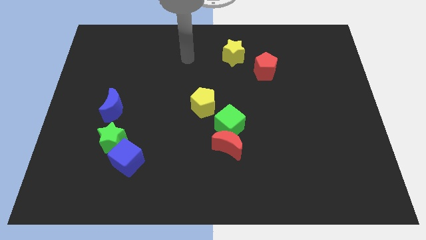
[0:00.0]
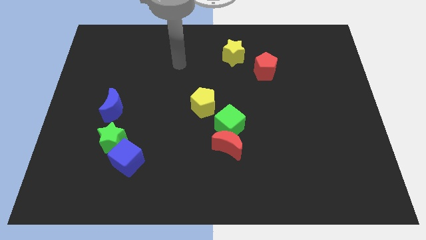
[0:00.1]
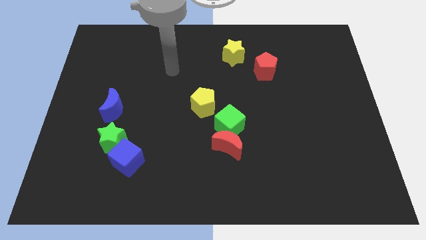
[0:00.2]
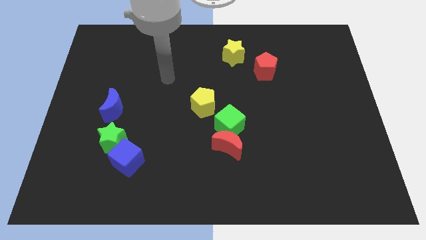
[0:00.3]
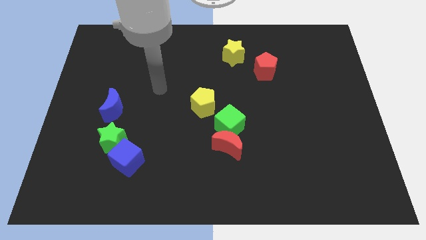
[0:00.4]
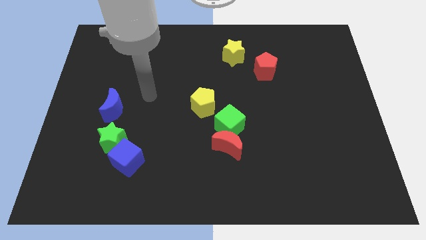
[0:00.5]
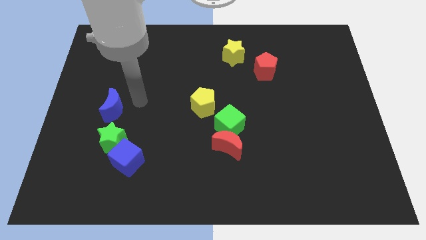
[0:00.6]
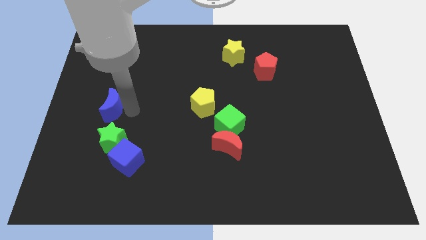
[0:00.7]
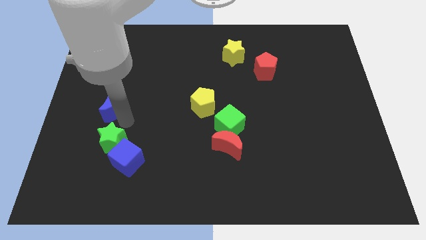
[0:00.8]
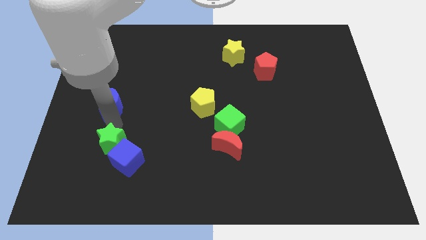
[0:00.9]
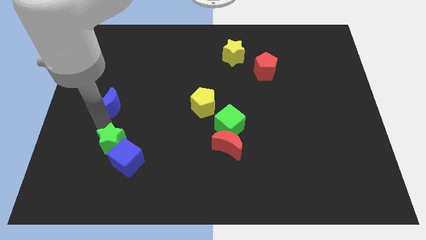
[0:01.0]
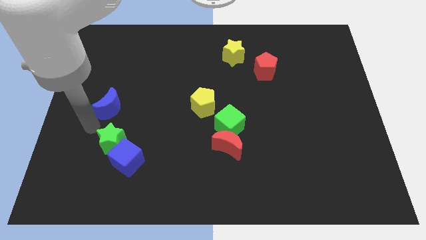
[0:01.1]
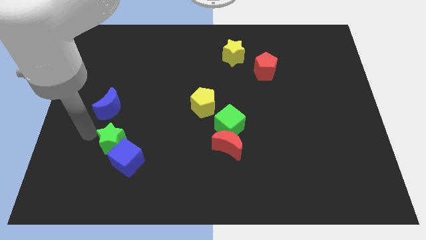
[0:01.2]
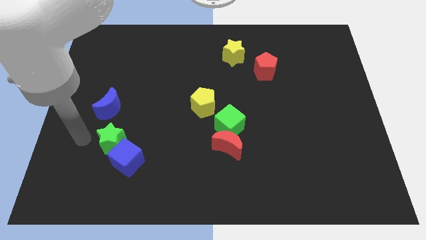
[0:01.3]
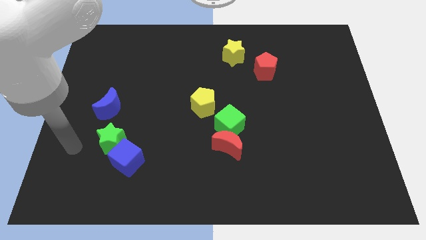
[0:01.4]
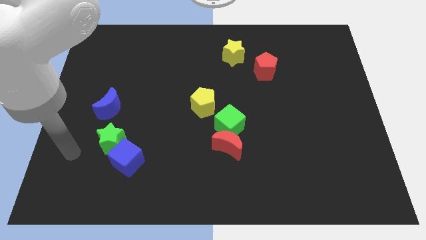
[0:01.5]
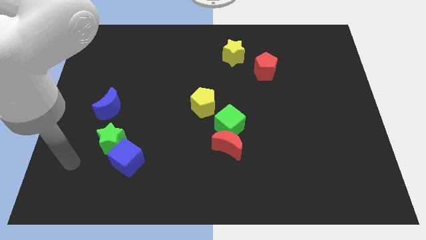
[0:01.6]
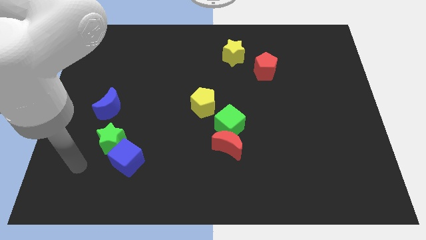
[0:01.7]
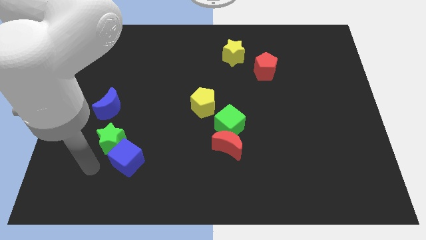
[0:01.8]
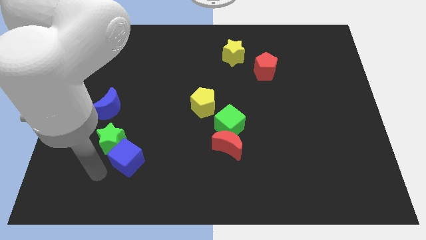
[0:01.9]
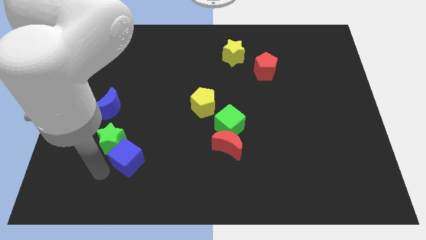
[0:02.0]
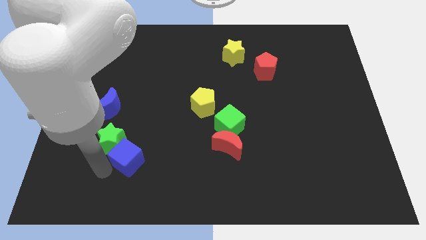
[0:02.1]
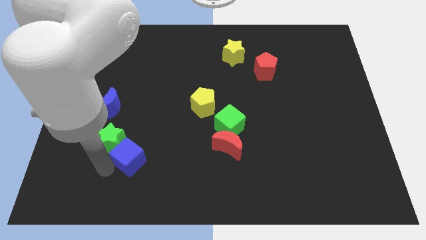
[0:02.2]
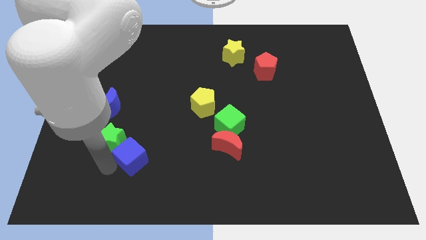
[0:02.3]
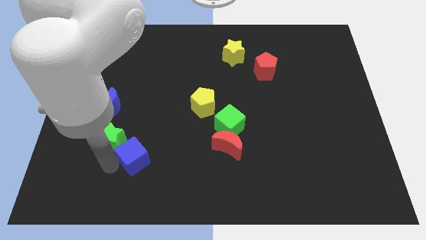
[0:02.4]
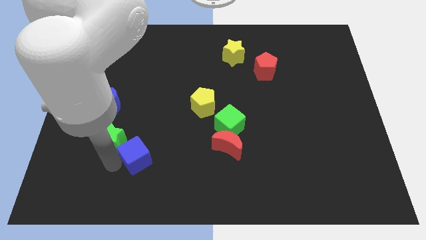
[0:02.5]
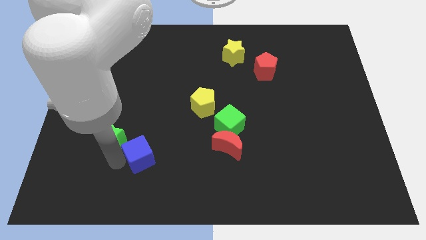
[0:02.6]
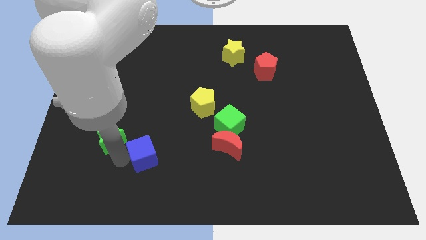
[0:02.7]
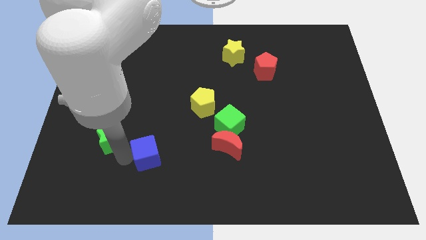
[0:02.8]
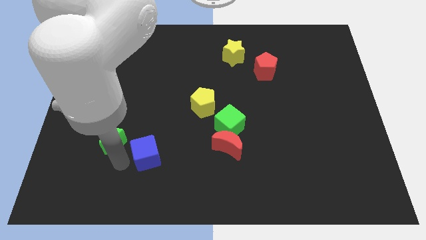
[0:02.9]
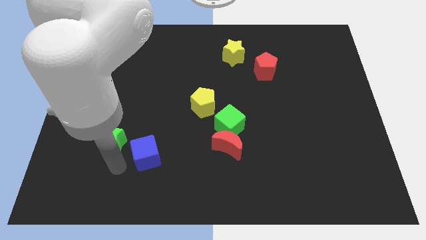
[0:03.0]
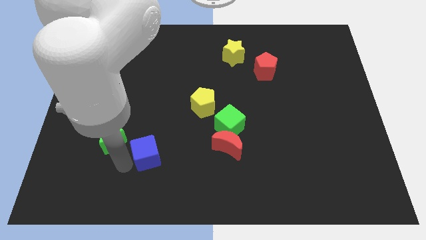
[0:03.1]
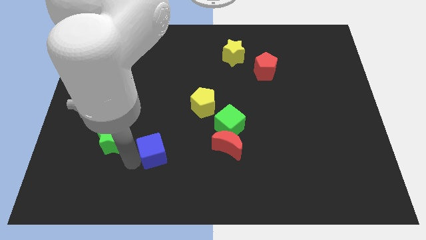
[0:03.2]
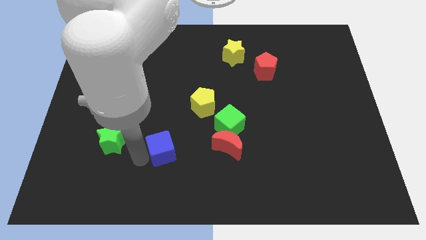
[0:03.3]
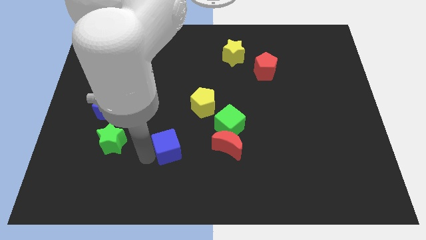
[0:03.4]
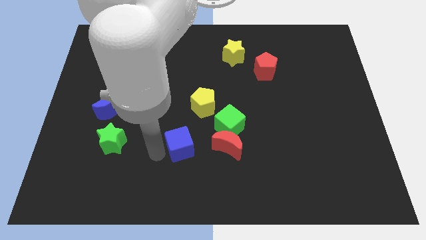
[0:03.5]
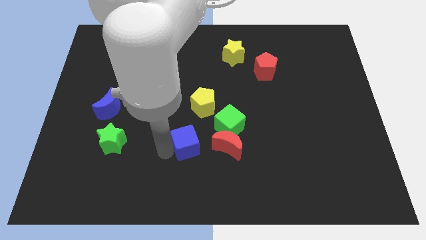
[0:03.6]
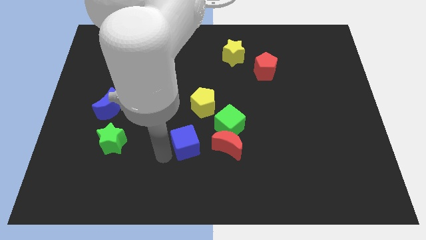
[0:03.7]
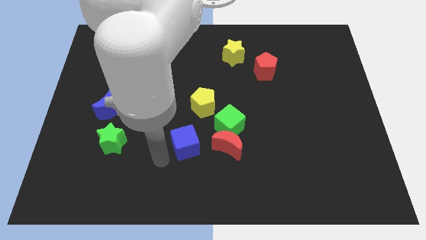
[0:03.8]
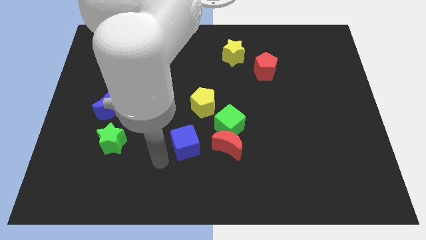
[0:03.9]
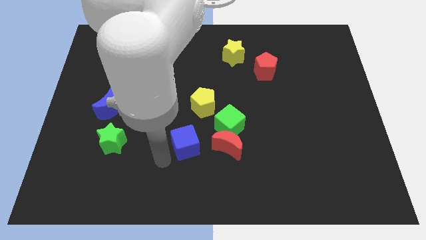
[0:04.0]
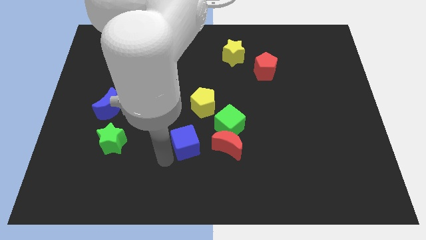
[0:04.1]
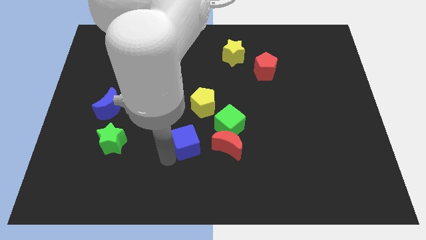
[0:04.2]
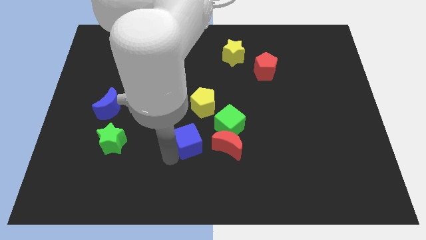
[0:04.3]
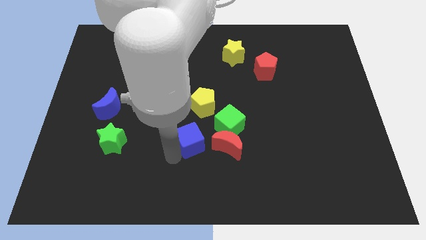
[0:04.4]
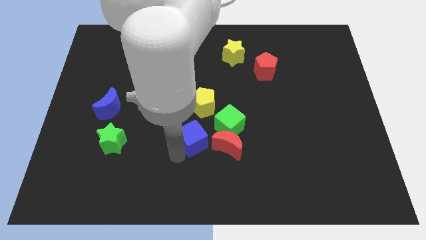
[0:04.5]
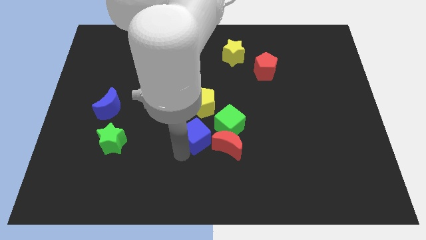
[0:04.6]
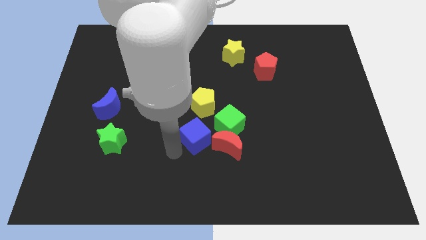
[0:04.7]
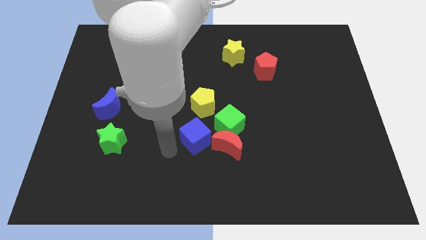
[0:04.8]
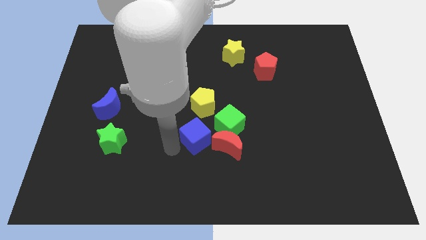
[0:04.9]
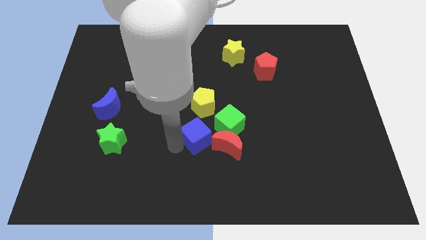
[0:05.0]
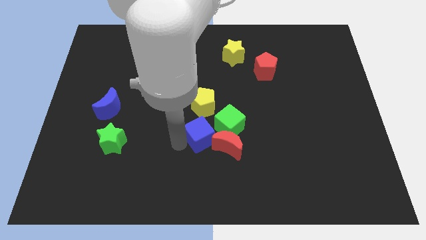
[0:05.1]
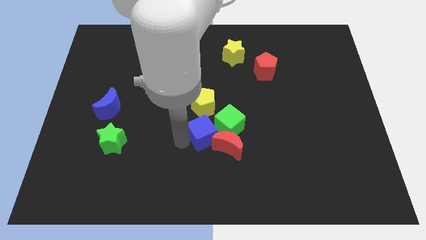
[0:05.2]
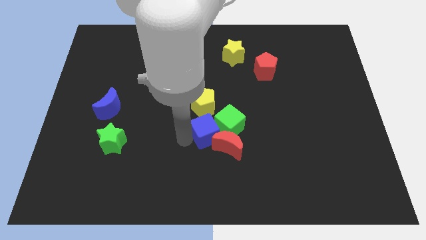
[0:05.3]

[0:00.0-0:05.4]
slide the blue cube close to the green cube

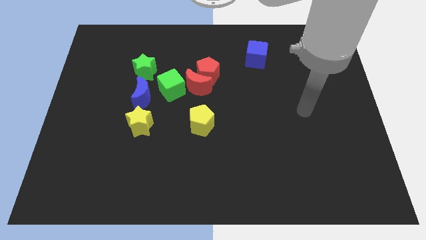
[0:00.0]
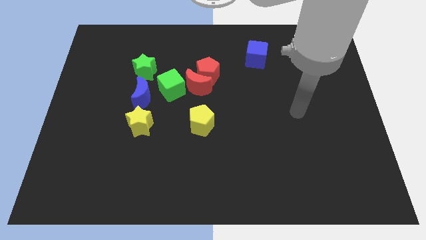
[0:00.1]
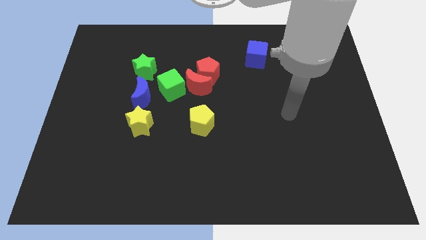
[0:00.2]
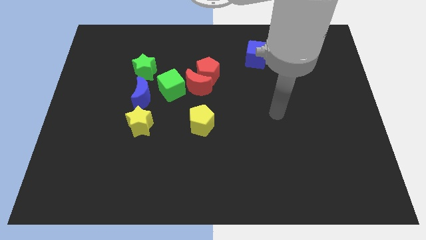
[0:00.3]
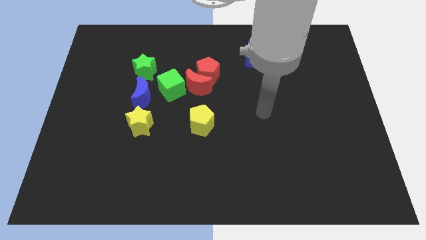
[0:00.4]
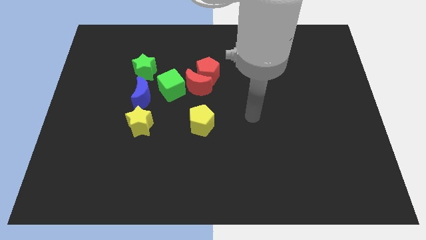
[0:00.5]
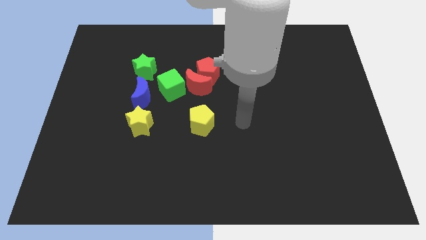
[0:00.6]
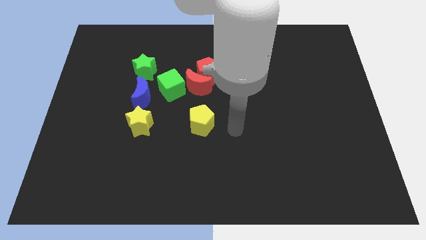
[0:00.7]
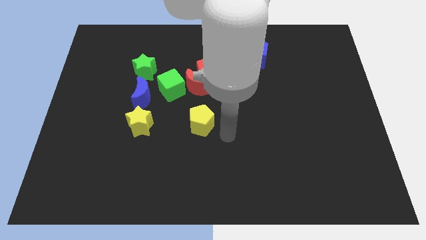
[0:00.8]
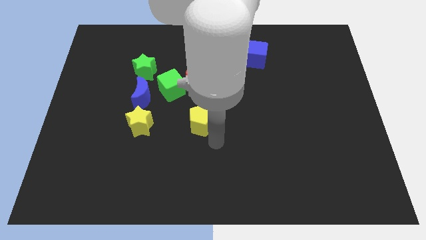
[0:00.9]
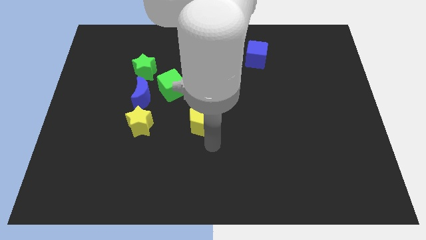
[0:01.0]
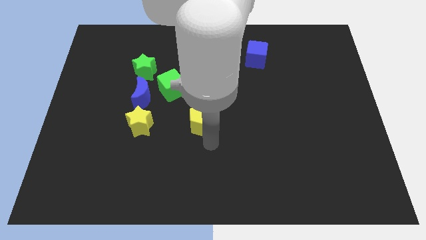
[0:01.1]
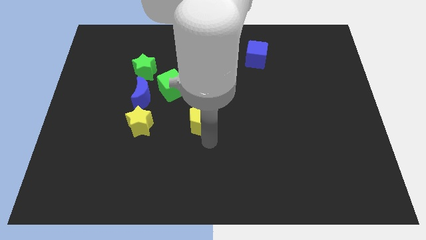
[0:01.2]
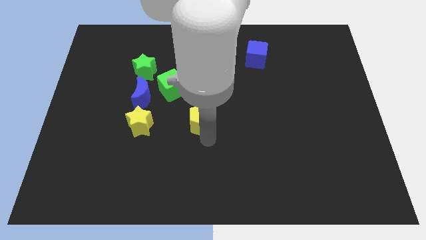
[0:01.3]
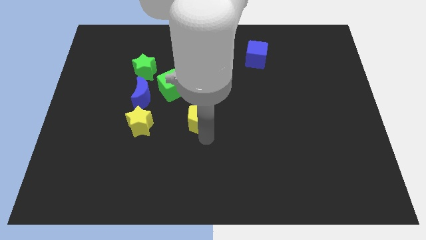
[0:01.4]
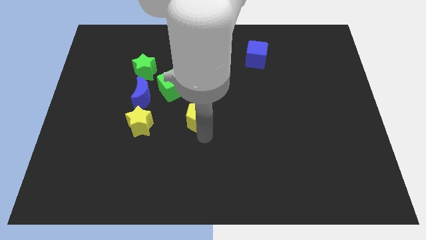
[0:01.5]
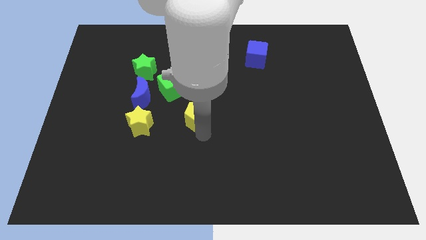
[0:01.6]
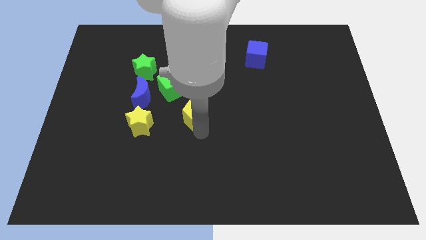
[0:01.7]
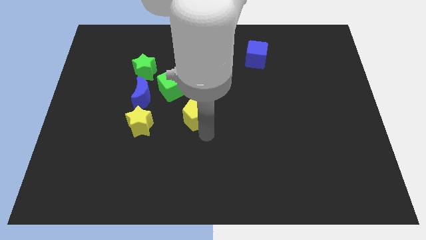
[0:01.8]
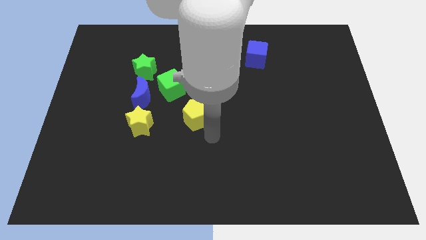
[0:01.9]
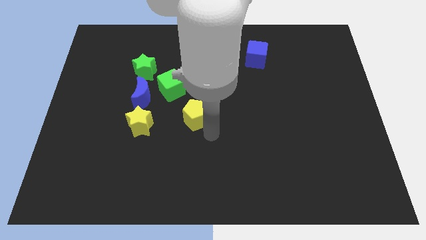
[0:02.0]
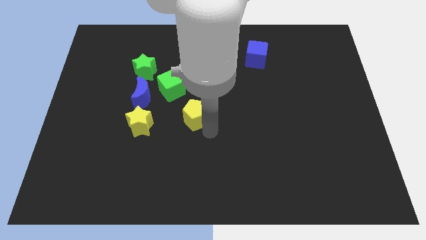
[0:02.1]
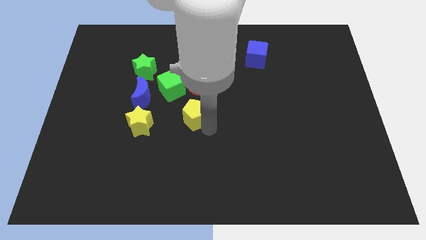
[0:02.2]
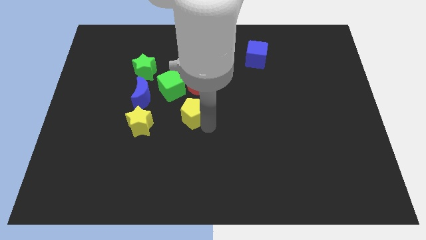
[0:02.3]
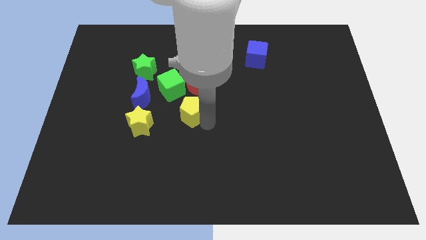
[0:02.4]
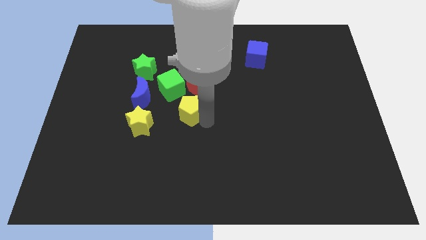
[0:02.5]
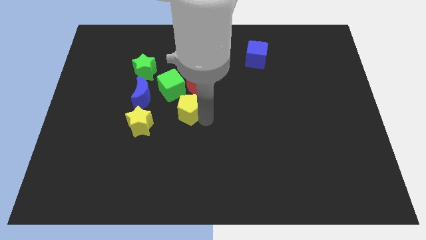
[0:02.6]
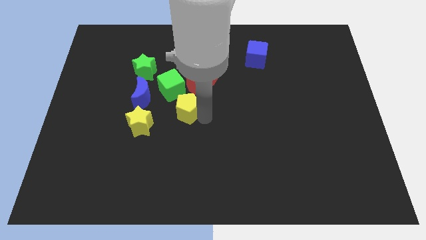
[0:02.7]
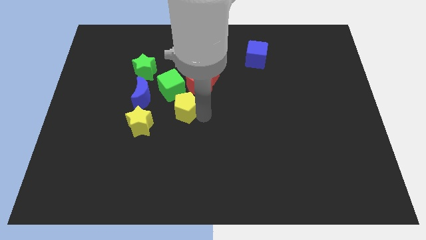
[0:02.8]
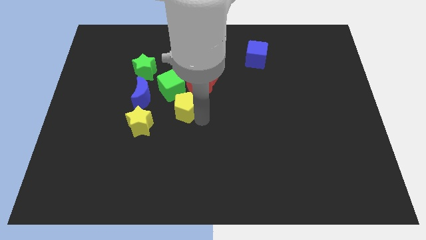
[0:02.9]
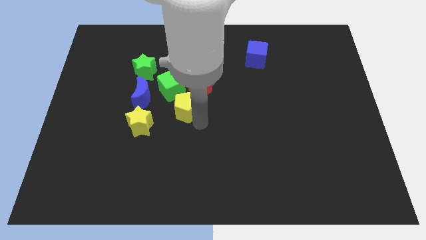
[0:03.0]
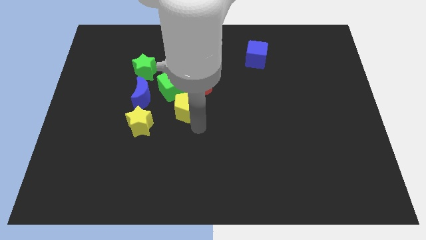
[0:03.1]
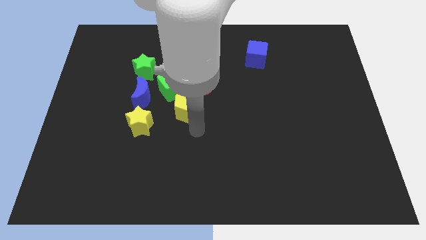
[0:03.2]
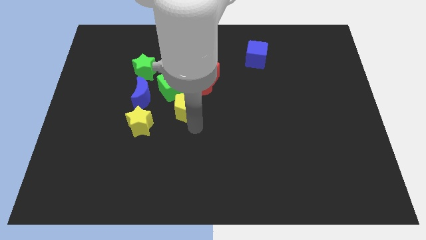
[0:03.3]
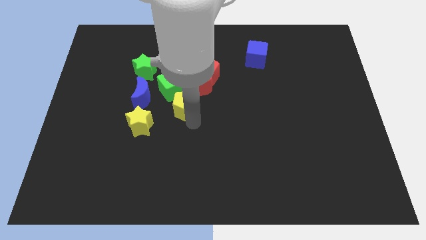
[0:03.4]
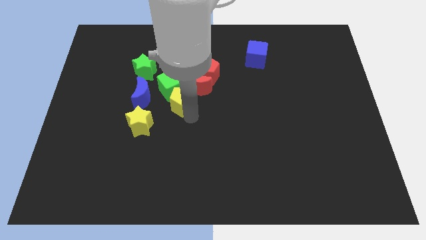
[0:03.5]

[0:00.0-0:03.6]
slide the yellow pentagon towards the green cube
